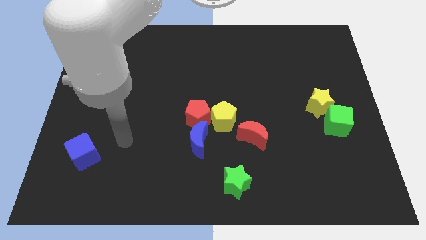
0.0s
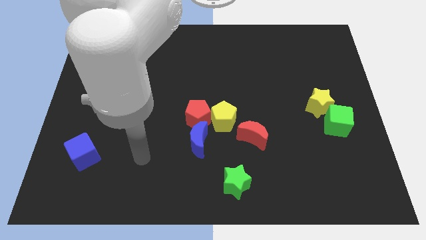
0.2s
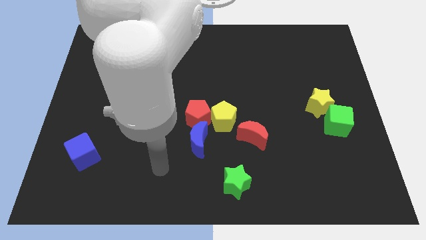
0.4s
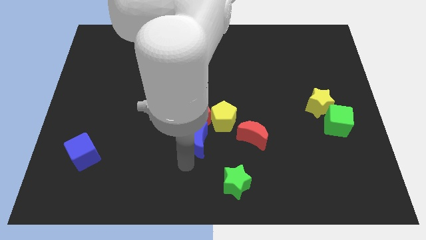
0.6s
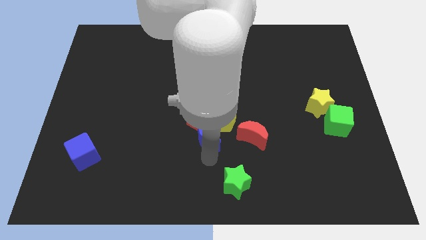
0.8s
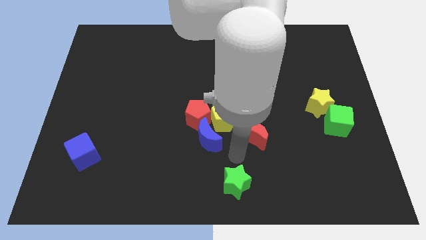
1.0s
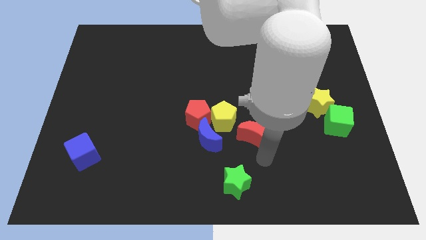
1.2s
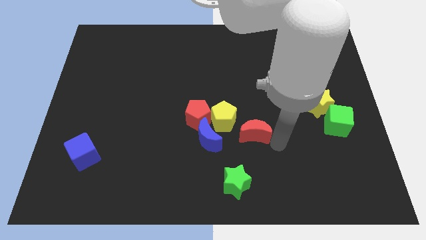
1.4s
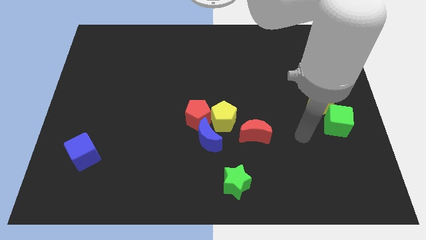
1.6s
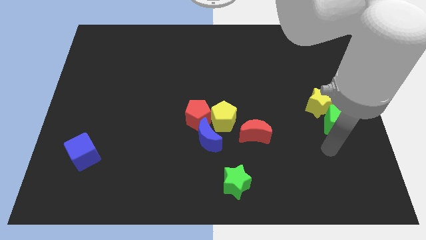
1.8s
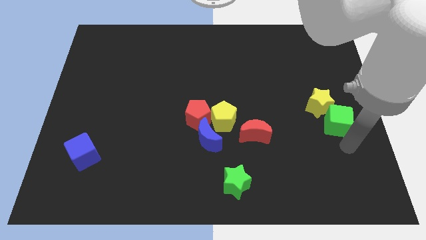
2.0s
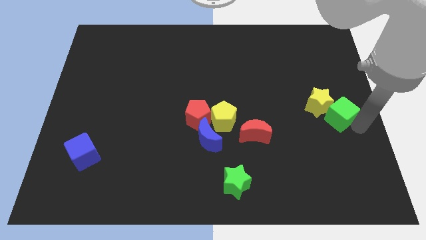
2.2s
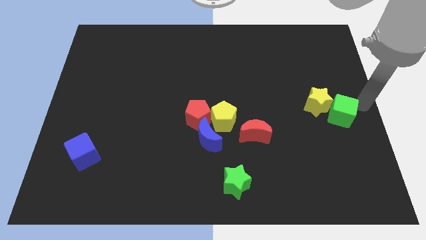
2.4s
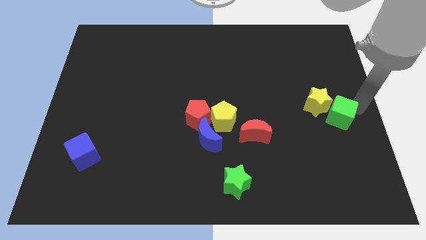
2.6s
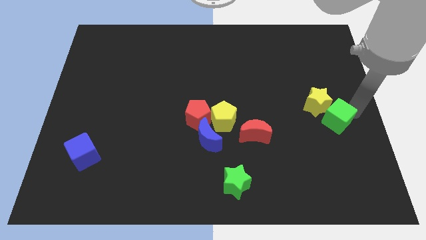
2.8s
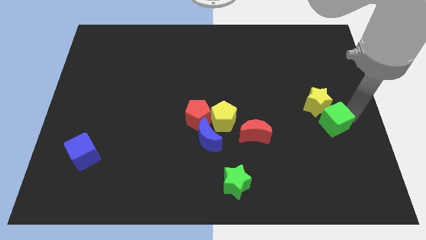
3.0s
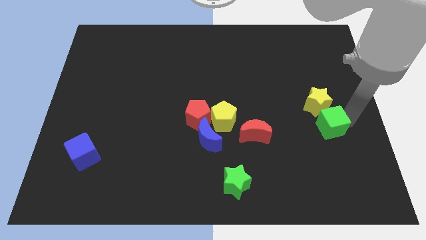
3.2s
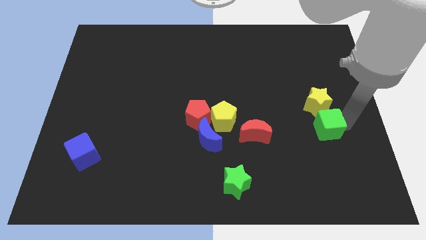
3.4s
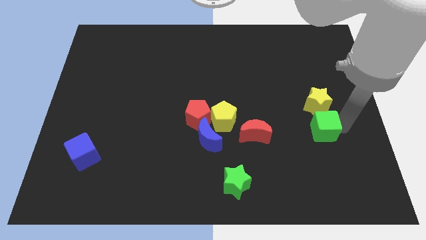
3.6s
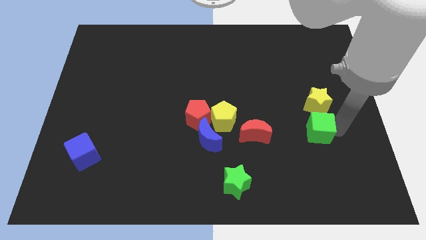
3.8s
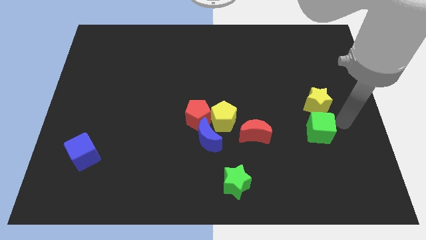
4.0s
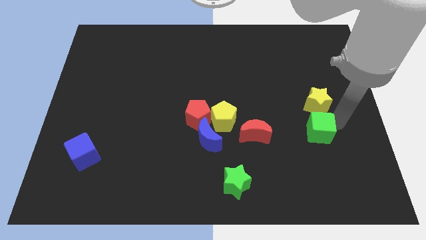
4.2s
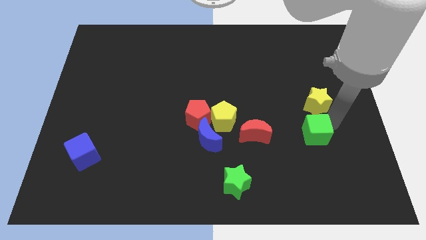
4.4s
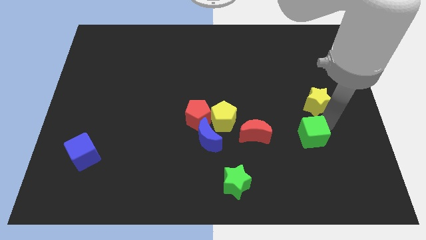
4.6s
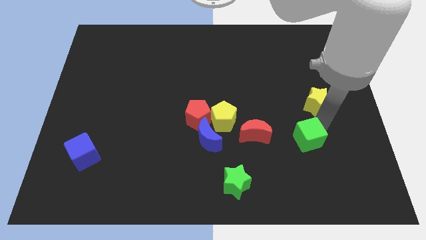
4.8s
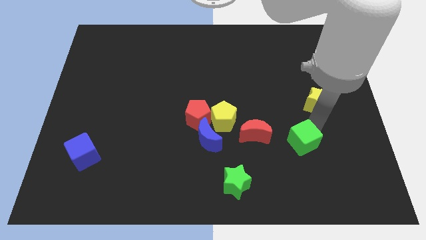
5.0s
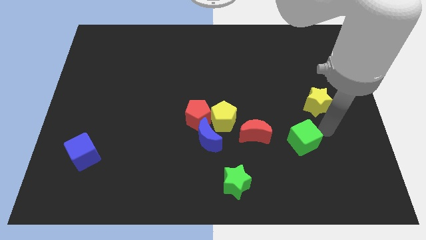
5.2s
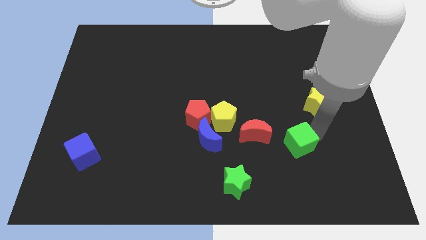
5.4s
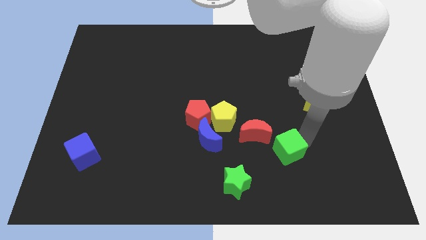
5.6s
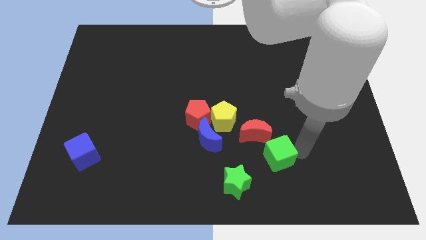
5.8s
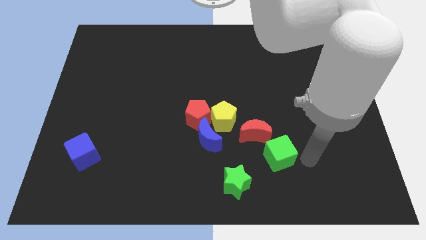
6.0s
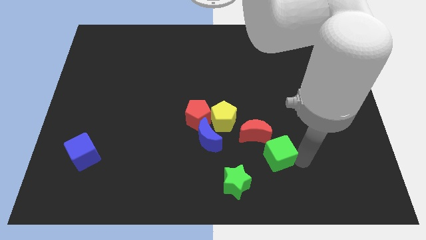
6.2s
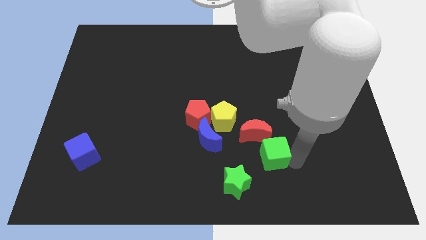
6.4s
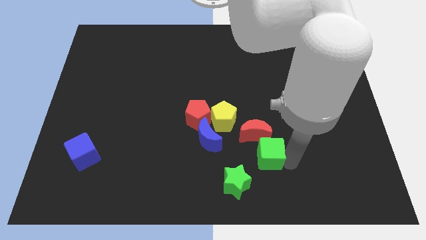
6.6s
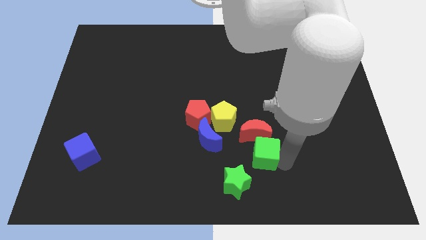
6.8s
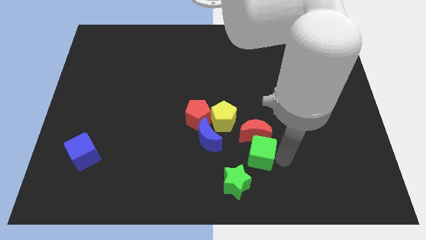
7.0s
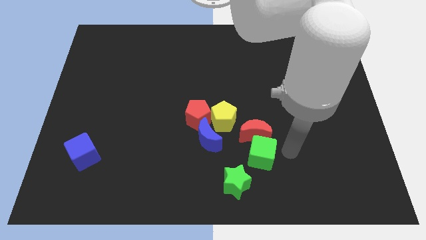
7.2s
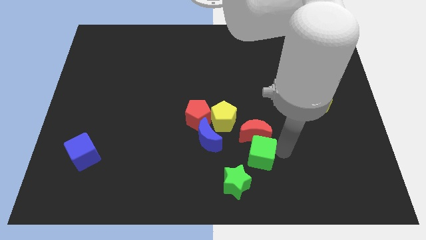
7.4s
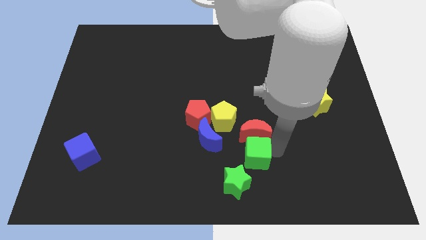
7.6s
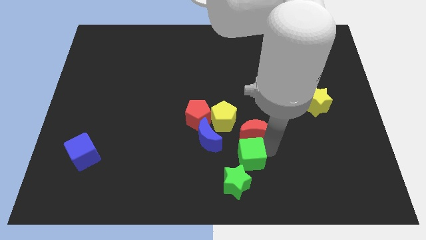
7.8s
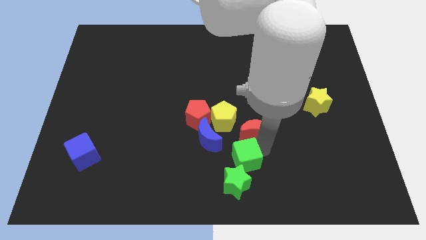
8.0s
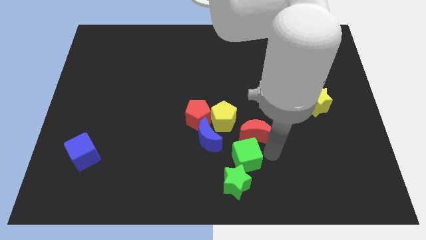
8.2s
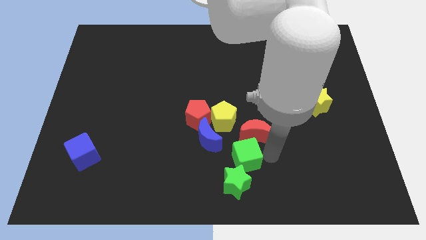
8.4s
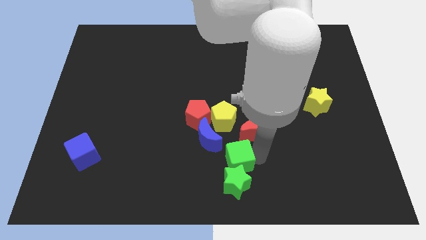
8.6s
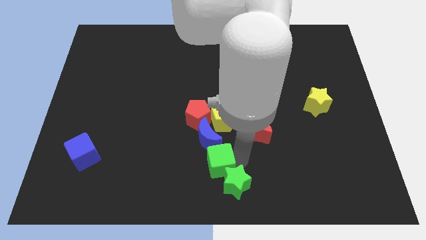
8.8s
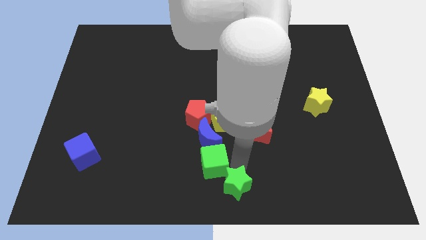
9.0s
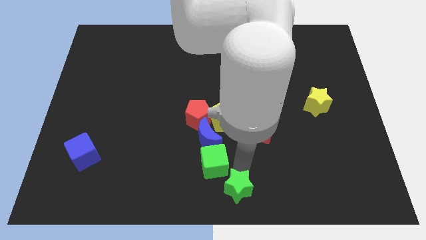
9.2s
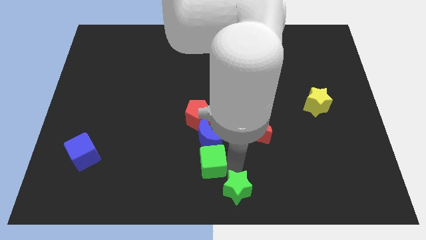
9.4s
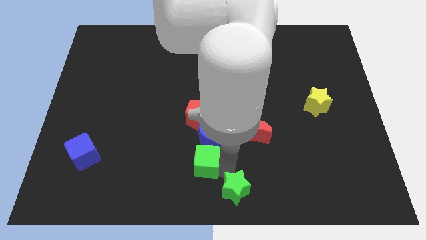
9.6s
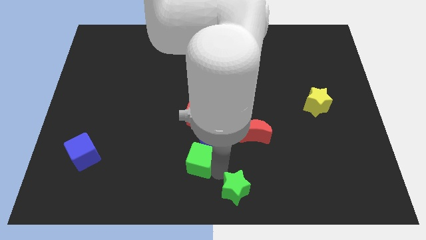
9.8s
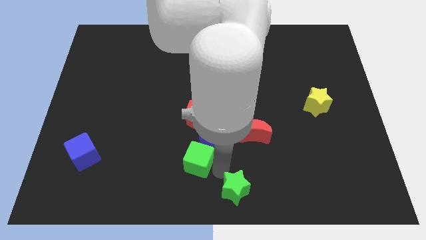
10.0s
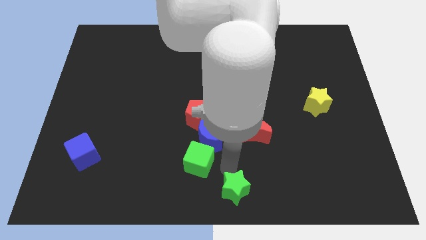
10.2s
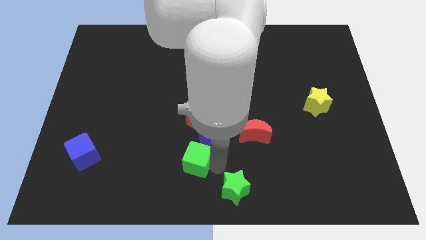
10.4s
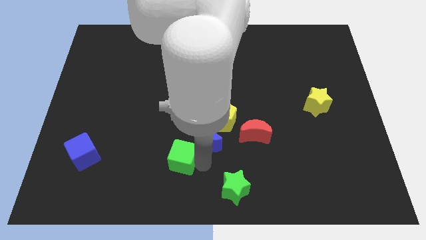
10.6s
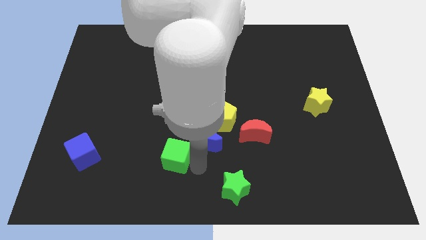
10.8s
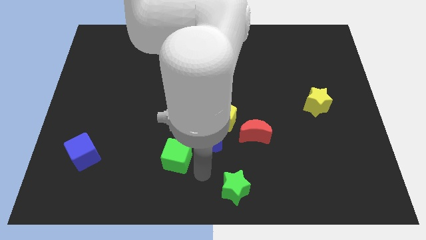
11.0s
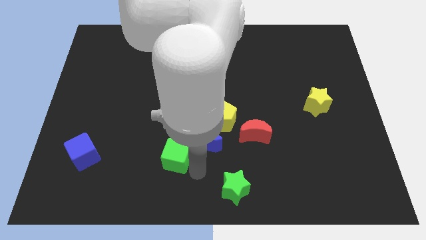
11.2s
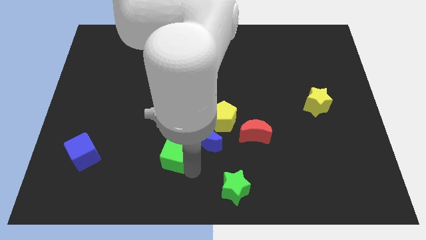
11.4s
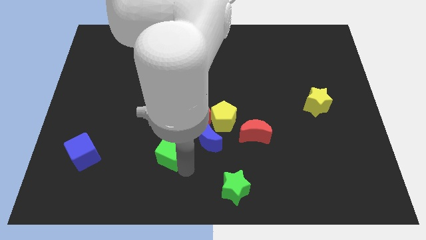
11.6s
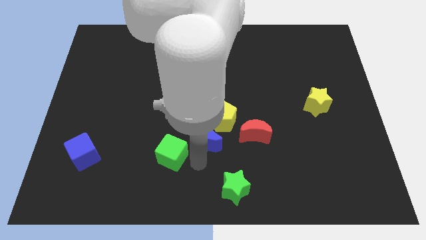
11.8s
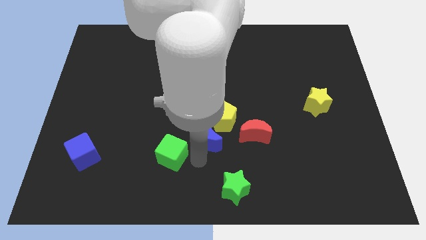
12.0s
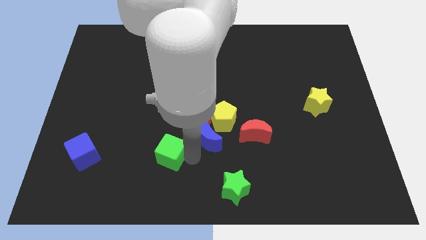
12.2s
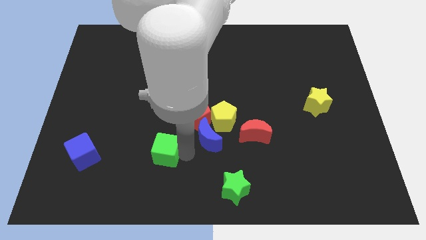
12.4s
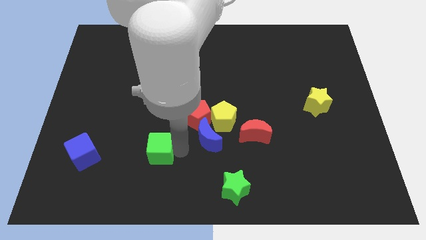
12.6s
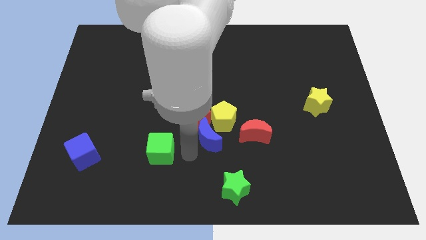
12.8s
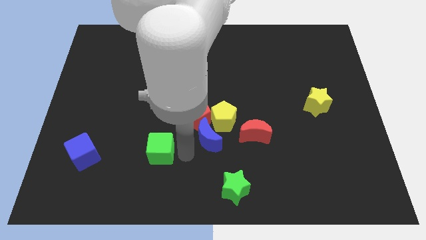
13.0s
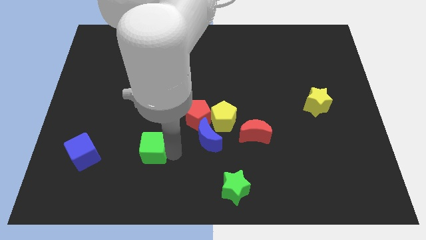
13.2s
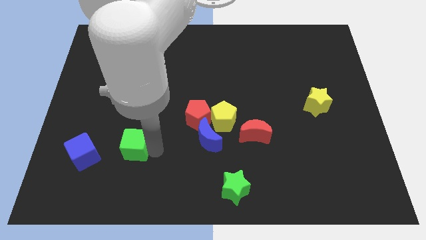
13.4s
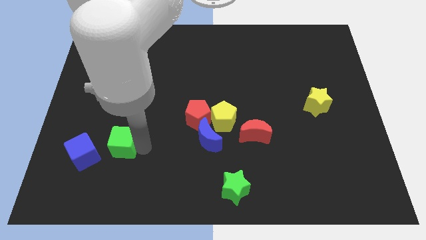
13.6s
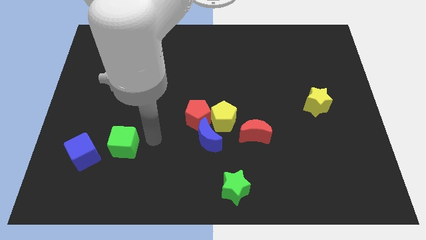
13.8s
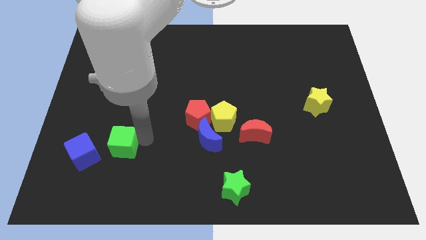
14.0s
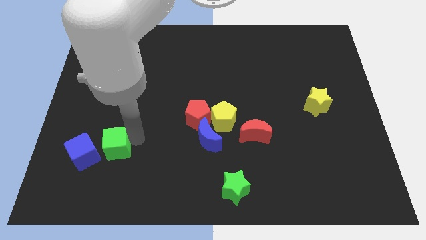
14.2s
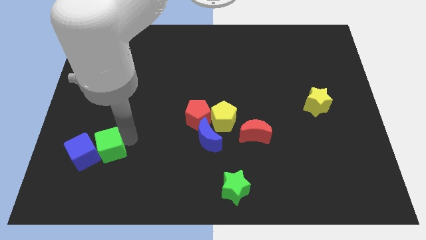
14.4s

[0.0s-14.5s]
push the green cube close to the blue cube
